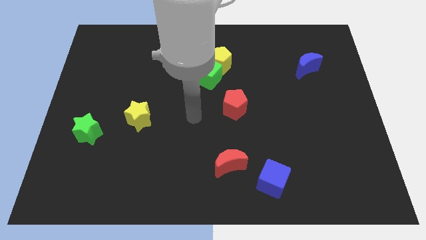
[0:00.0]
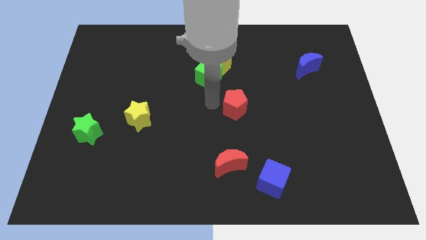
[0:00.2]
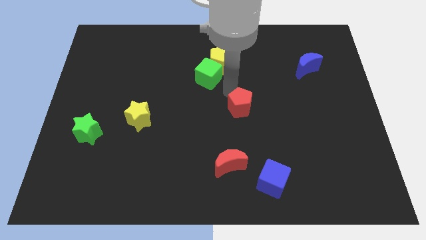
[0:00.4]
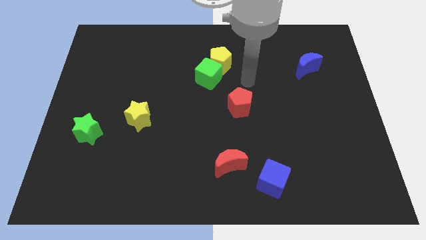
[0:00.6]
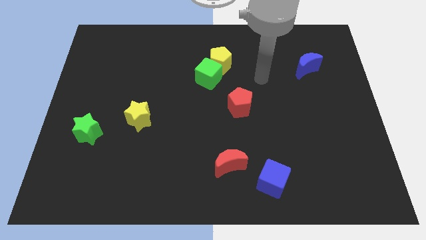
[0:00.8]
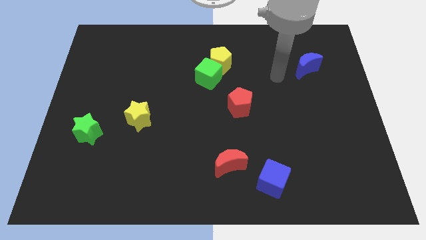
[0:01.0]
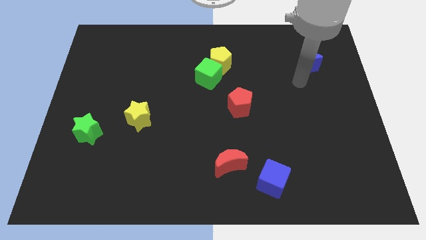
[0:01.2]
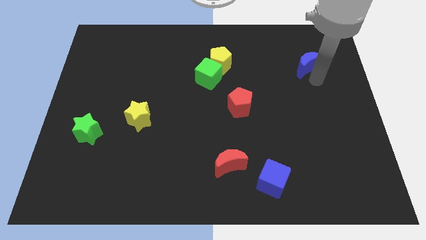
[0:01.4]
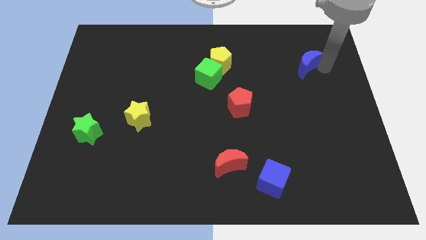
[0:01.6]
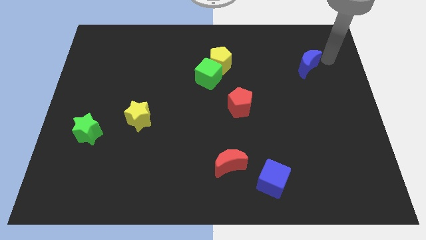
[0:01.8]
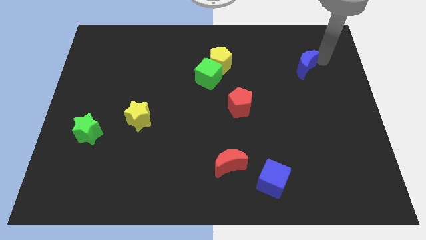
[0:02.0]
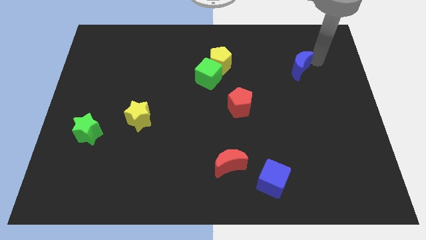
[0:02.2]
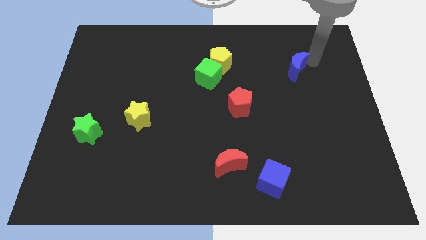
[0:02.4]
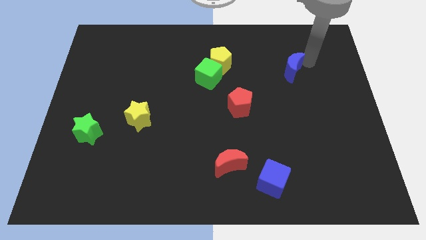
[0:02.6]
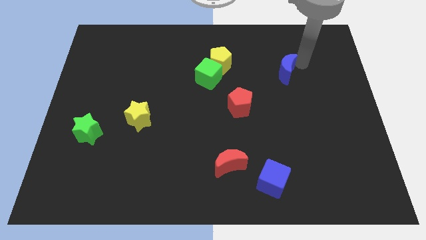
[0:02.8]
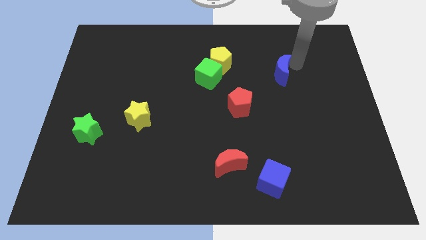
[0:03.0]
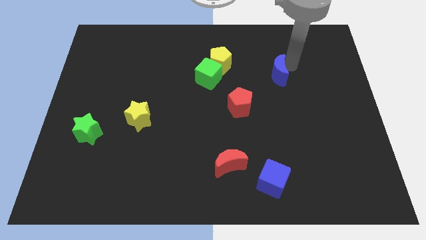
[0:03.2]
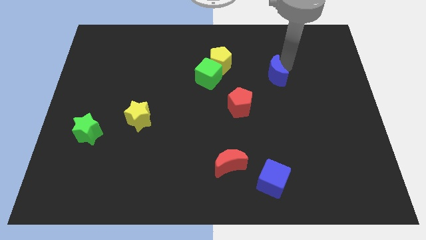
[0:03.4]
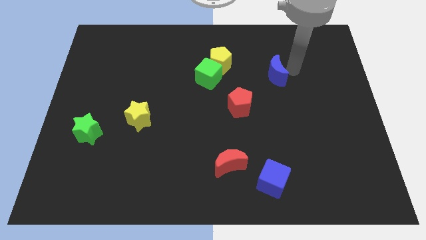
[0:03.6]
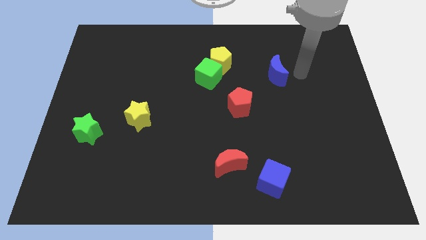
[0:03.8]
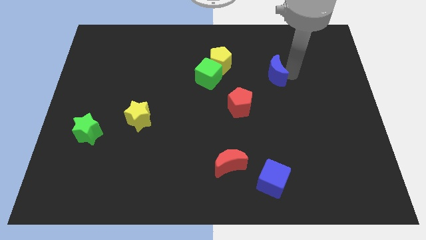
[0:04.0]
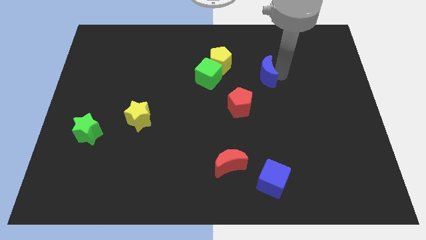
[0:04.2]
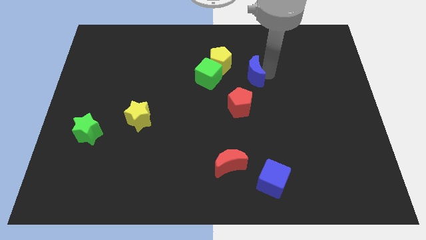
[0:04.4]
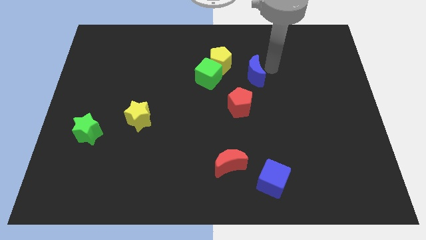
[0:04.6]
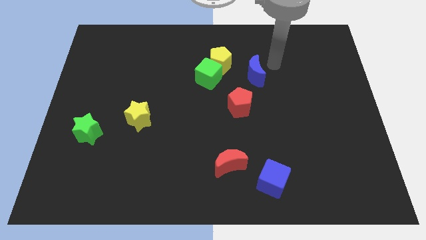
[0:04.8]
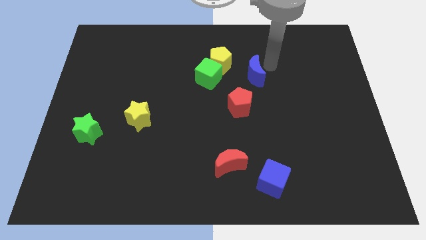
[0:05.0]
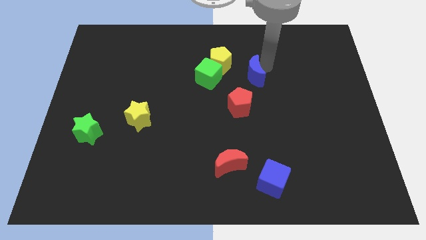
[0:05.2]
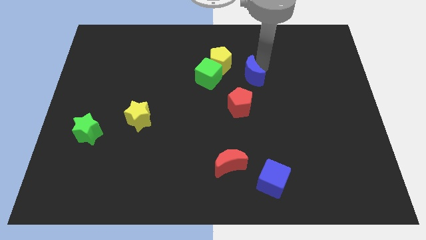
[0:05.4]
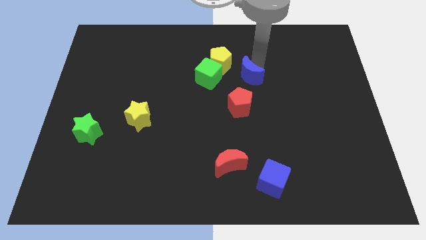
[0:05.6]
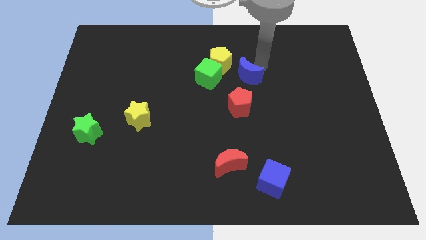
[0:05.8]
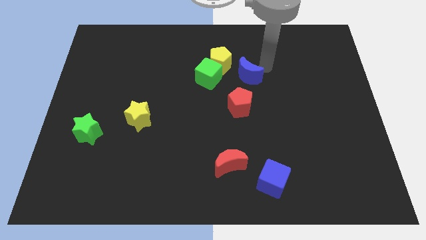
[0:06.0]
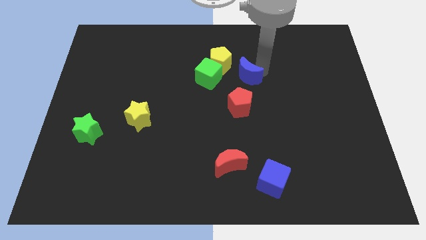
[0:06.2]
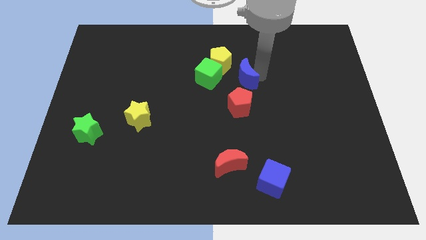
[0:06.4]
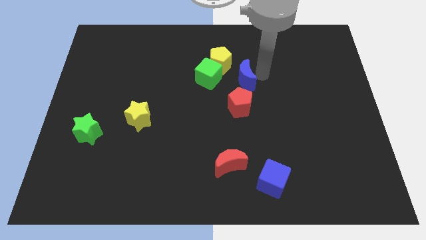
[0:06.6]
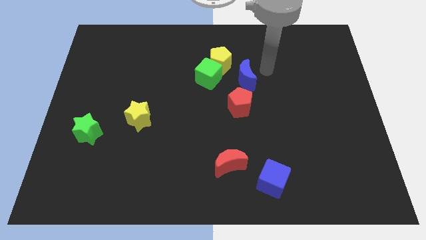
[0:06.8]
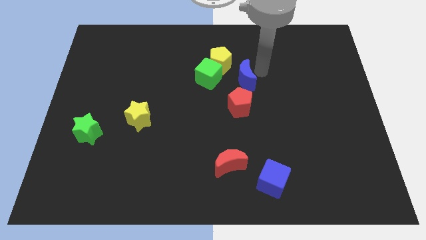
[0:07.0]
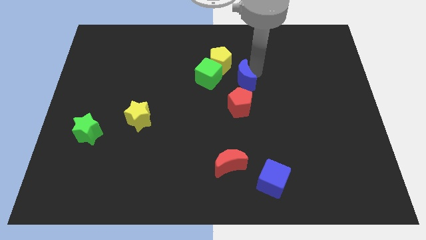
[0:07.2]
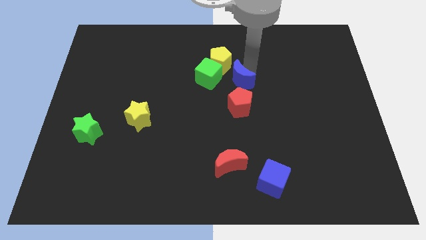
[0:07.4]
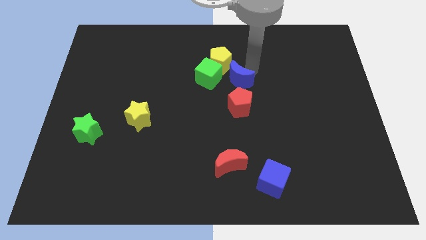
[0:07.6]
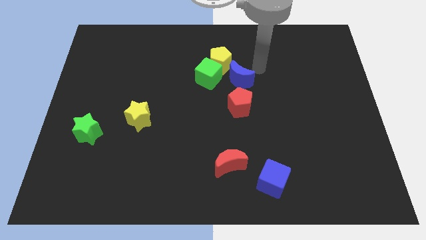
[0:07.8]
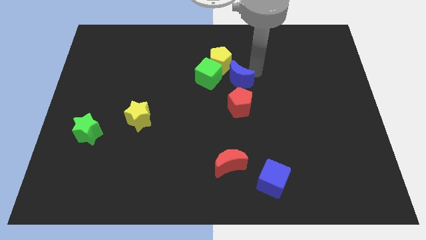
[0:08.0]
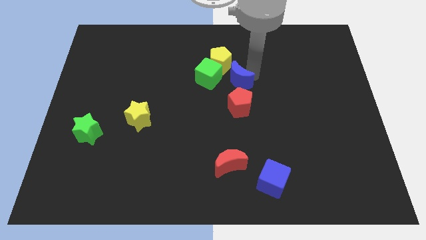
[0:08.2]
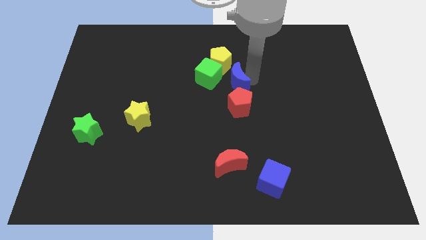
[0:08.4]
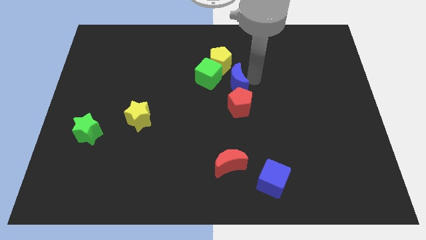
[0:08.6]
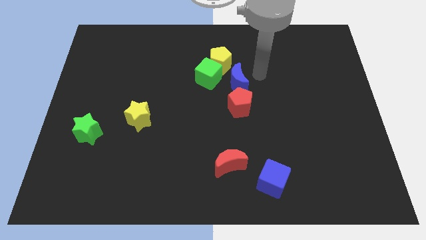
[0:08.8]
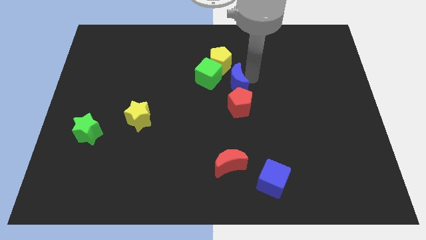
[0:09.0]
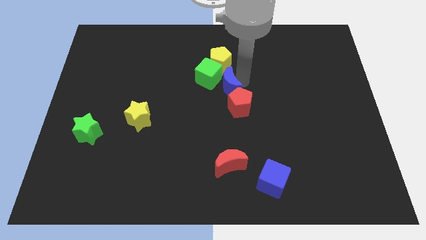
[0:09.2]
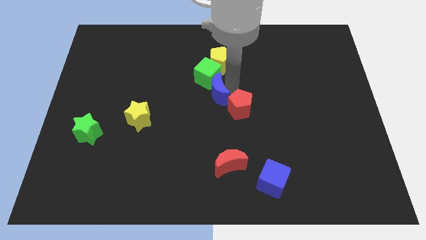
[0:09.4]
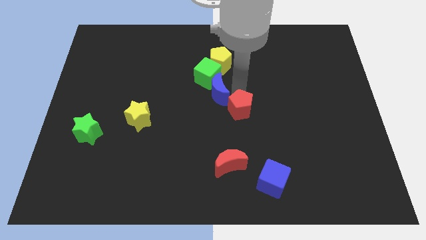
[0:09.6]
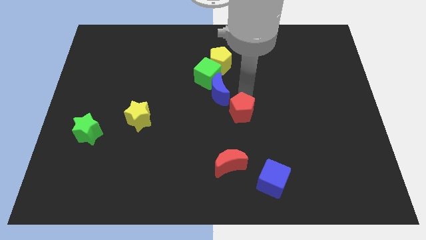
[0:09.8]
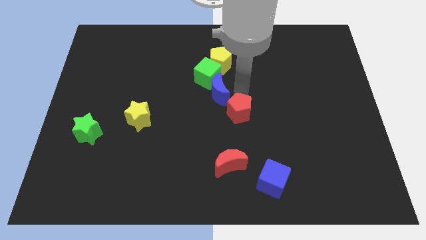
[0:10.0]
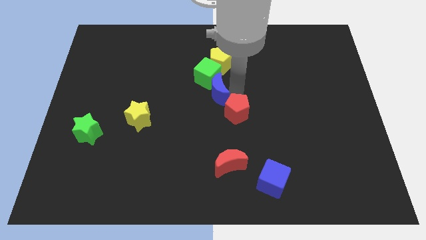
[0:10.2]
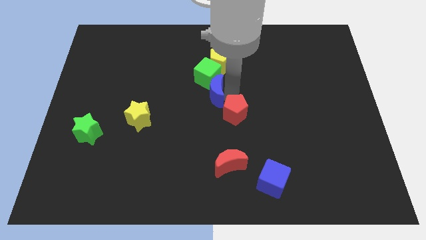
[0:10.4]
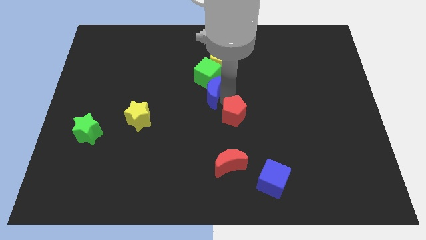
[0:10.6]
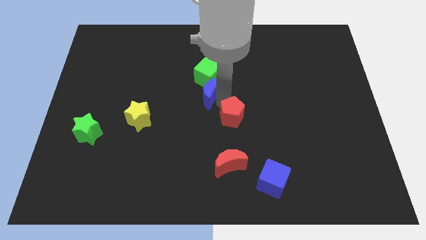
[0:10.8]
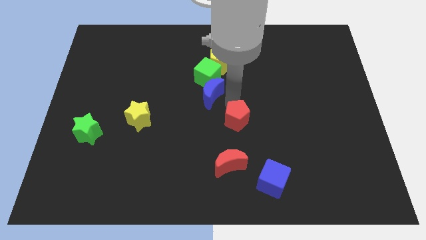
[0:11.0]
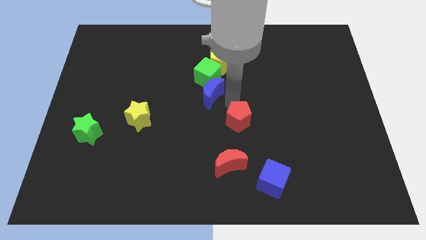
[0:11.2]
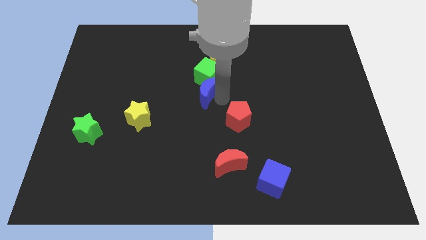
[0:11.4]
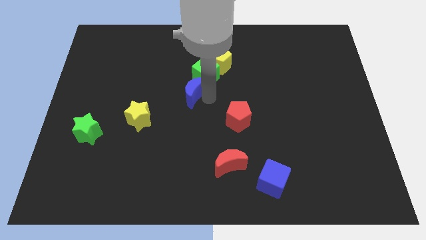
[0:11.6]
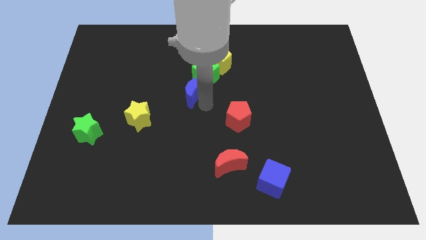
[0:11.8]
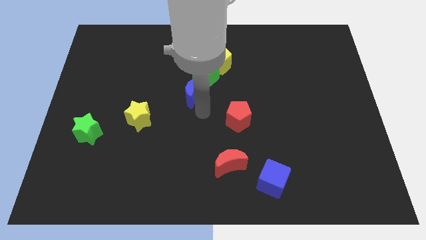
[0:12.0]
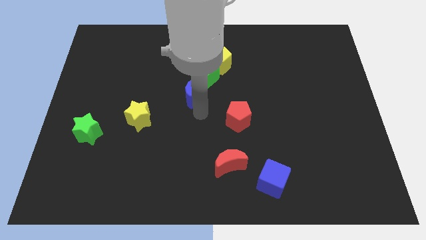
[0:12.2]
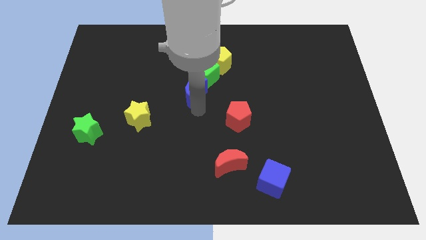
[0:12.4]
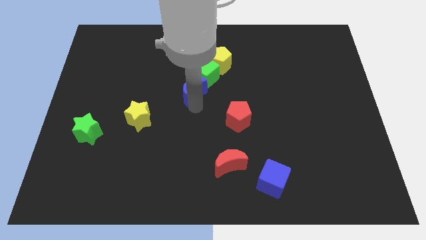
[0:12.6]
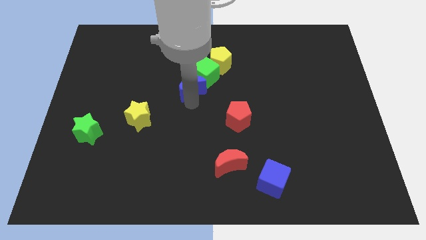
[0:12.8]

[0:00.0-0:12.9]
push the blue moon to the left of the green cube

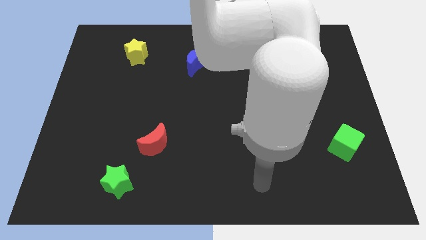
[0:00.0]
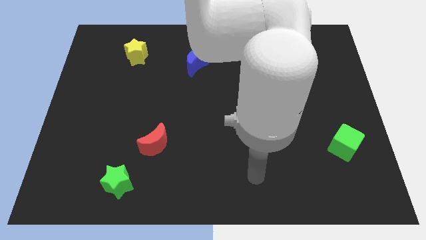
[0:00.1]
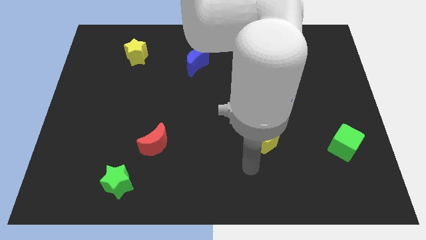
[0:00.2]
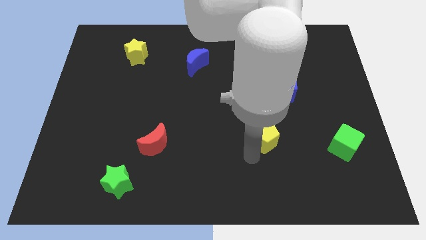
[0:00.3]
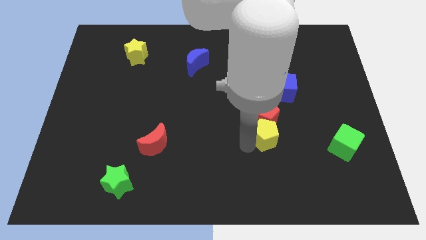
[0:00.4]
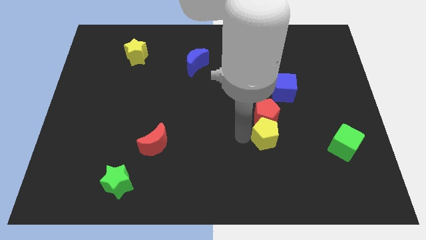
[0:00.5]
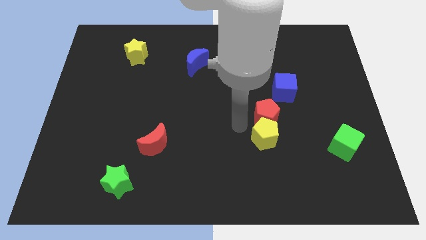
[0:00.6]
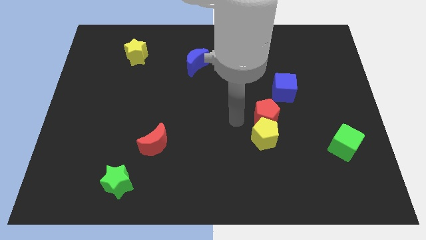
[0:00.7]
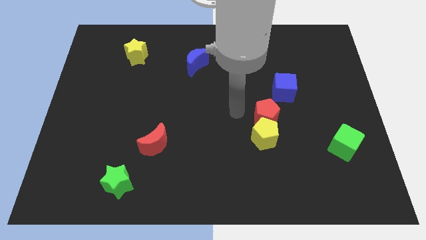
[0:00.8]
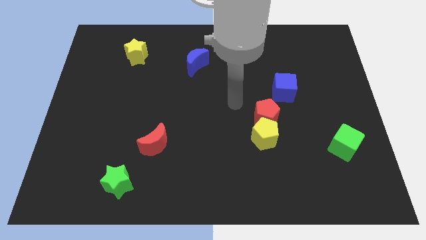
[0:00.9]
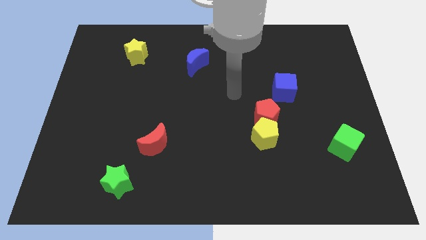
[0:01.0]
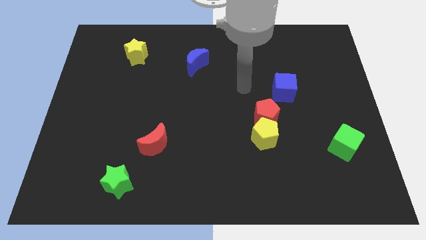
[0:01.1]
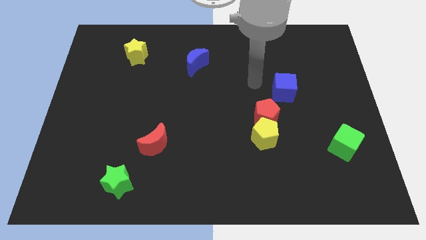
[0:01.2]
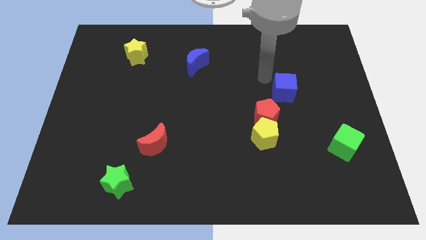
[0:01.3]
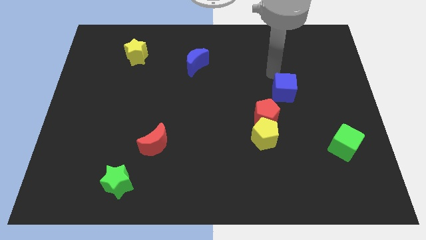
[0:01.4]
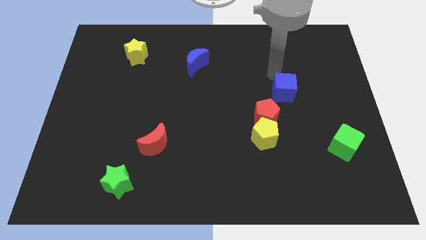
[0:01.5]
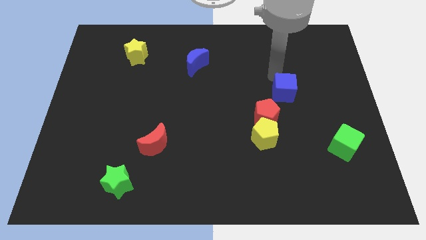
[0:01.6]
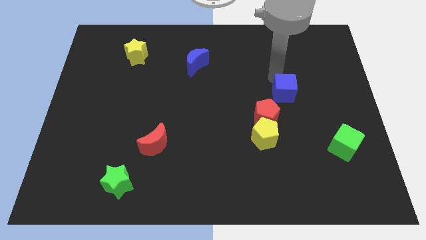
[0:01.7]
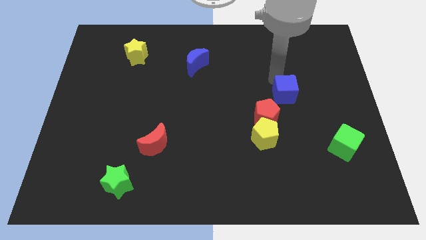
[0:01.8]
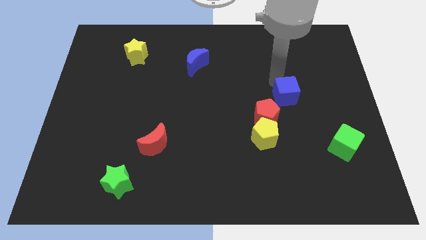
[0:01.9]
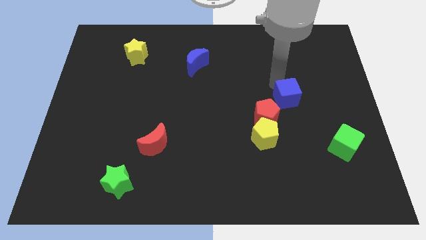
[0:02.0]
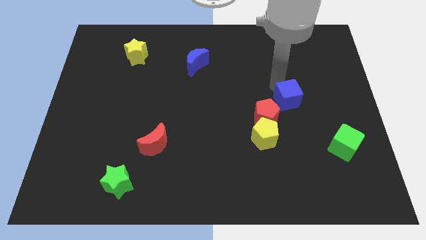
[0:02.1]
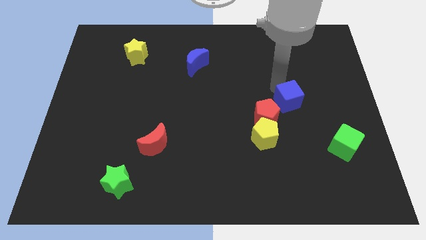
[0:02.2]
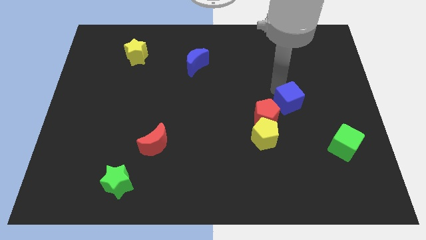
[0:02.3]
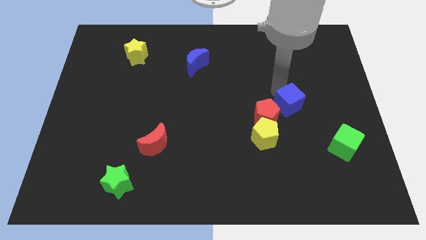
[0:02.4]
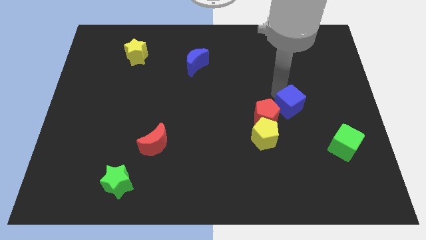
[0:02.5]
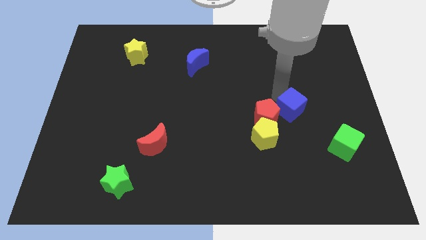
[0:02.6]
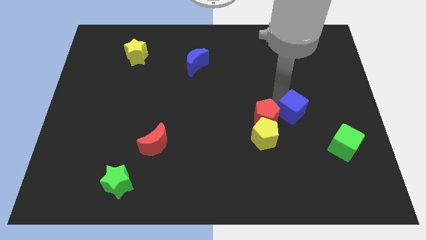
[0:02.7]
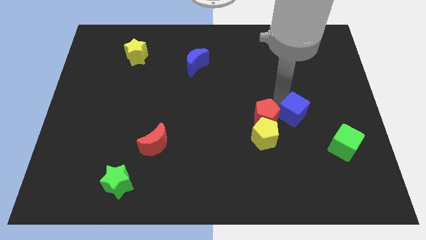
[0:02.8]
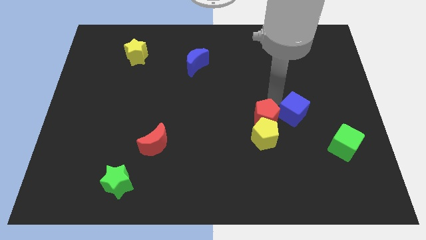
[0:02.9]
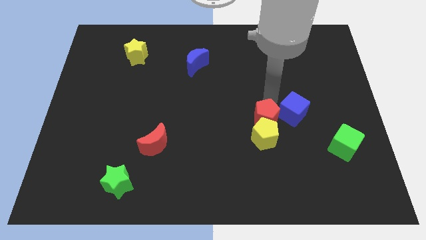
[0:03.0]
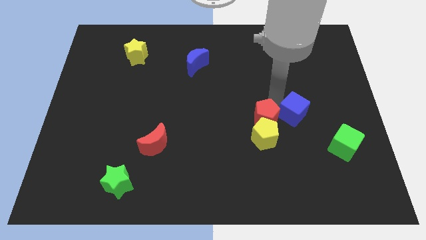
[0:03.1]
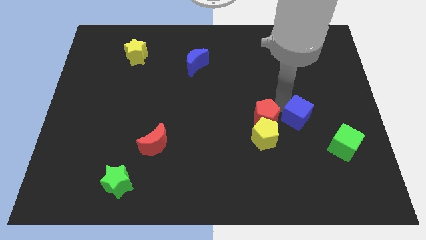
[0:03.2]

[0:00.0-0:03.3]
push the blue cube to the top left of the green cube
